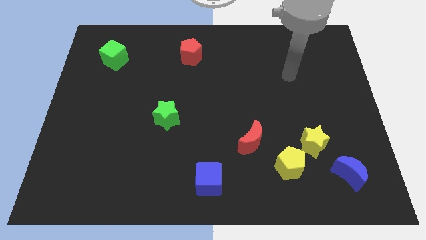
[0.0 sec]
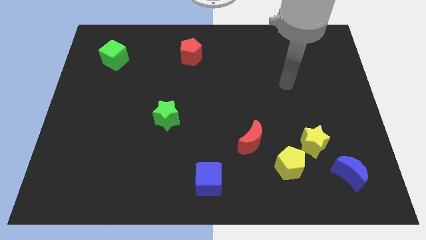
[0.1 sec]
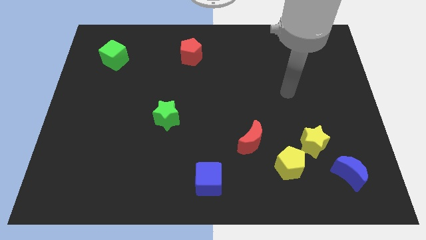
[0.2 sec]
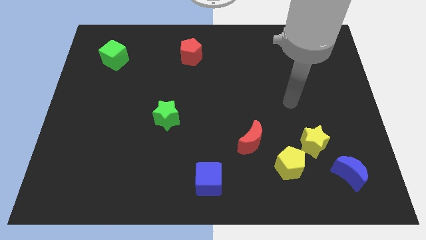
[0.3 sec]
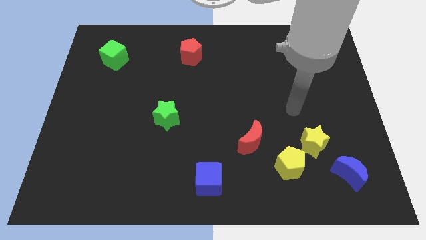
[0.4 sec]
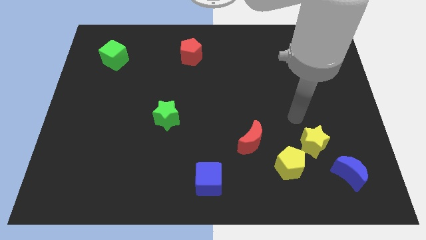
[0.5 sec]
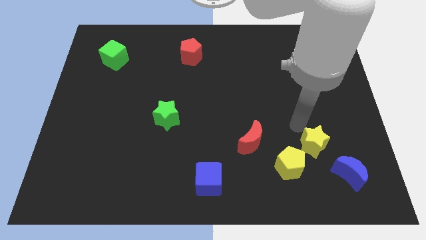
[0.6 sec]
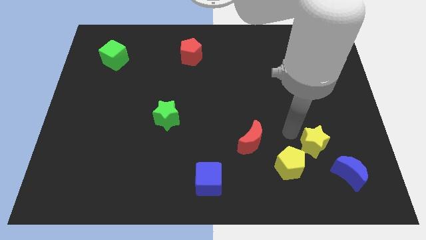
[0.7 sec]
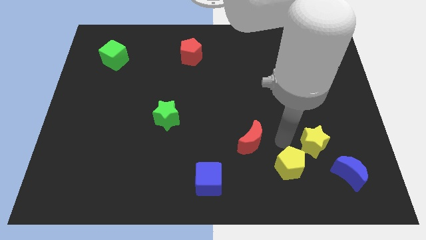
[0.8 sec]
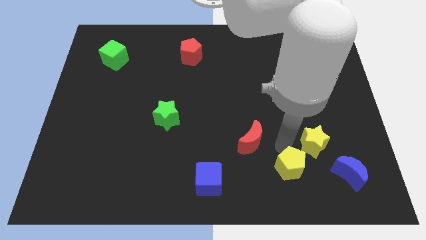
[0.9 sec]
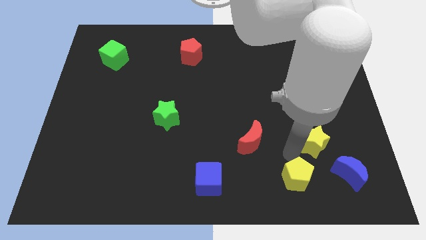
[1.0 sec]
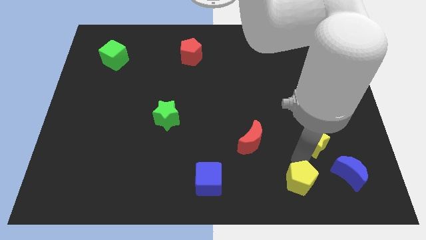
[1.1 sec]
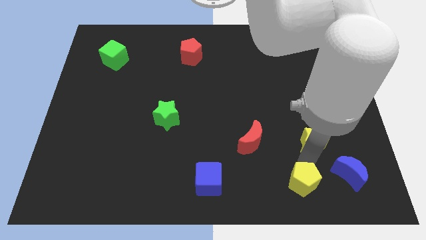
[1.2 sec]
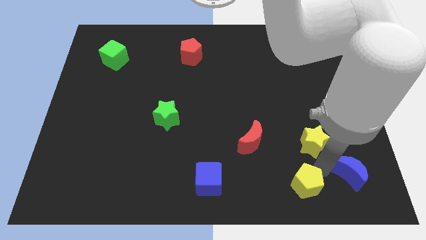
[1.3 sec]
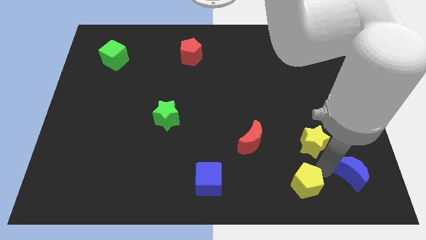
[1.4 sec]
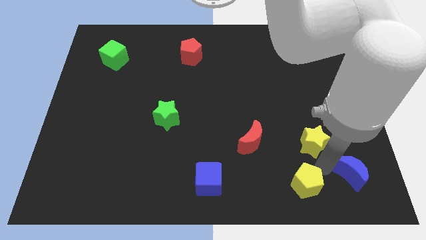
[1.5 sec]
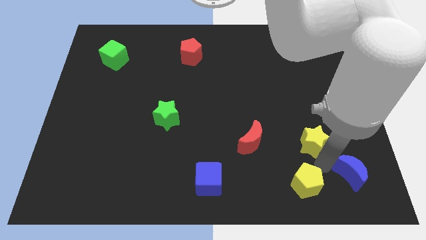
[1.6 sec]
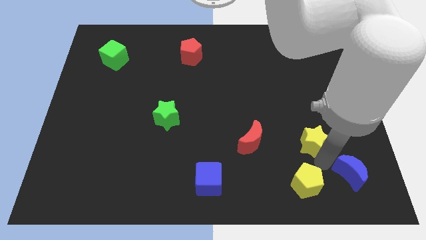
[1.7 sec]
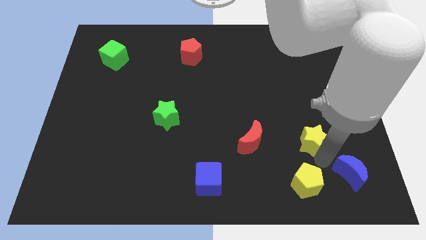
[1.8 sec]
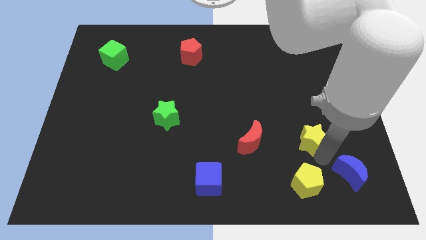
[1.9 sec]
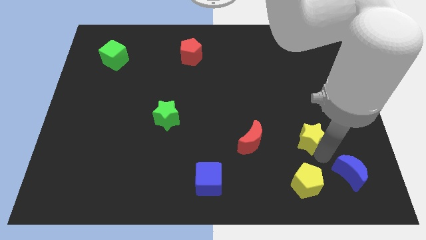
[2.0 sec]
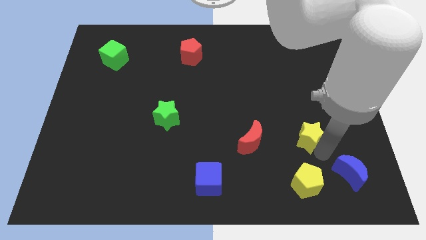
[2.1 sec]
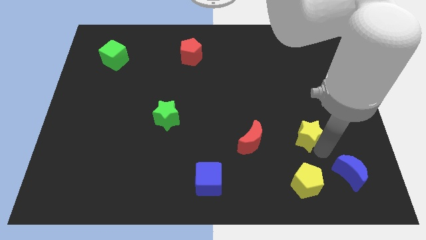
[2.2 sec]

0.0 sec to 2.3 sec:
move the yellow star away from the yellow pentagon and blue moon

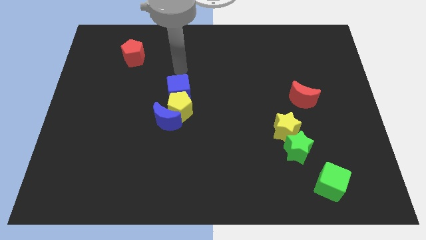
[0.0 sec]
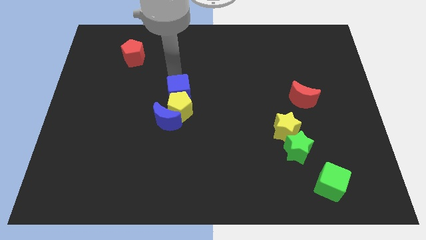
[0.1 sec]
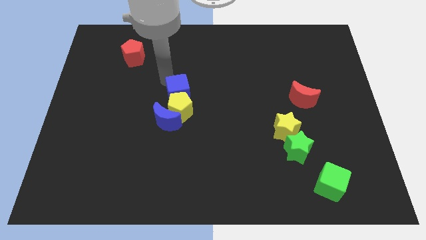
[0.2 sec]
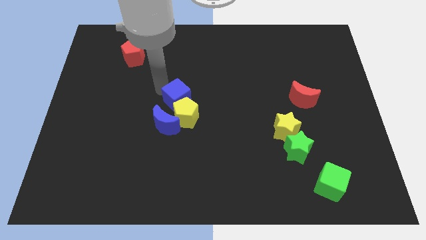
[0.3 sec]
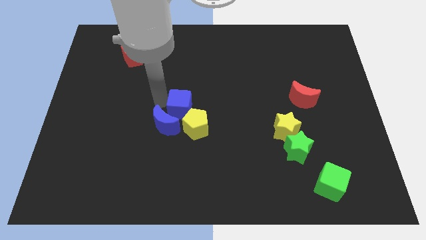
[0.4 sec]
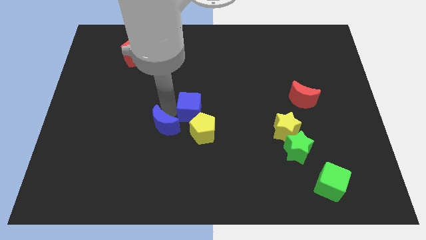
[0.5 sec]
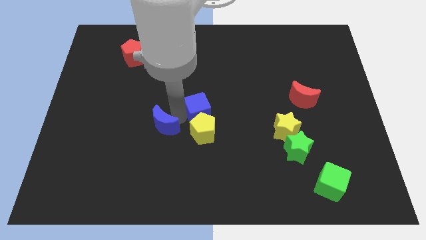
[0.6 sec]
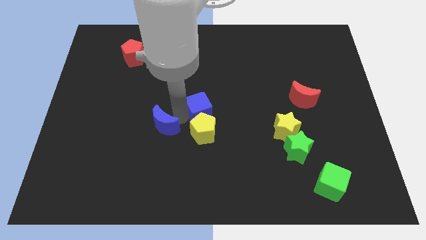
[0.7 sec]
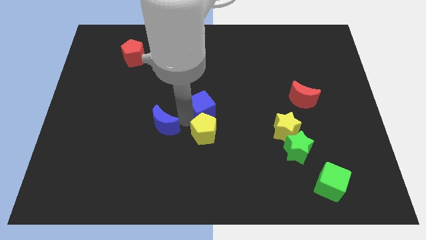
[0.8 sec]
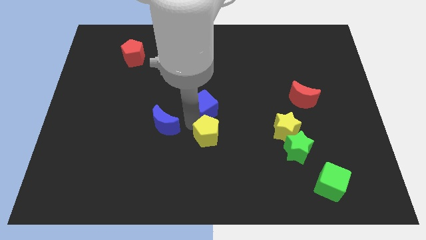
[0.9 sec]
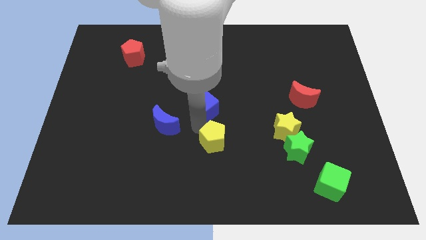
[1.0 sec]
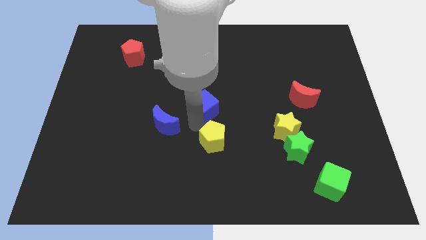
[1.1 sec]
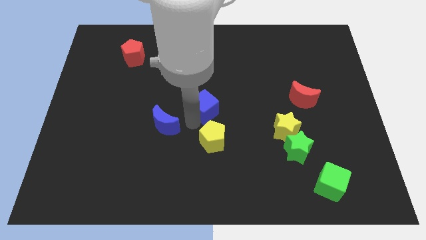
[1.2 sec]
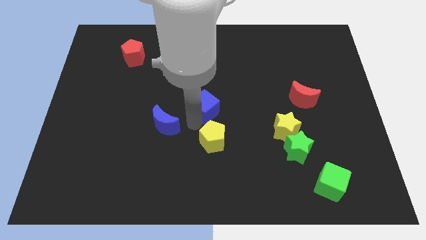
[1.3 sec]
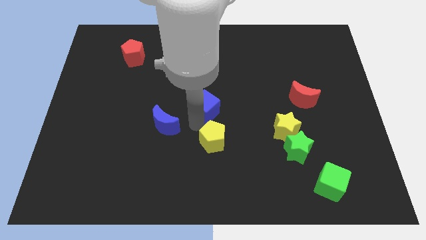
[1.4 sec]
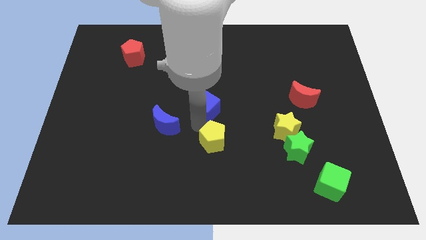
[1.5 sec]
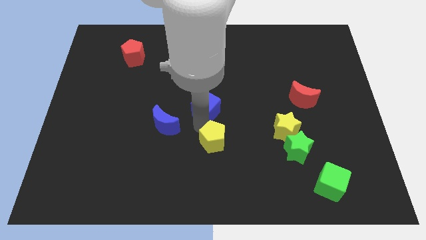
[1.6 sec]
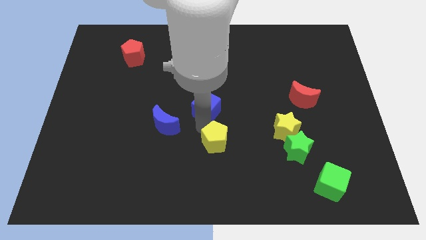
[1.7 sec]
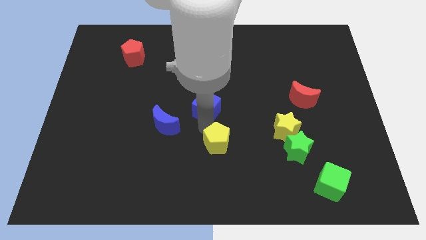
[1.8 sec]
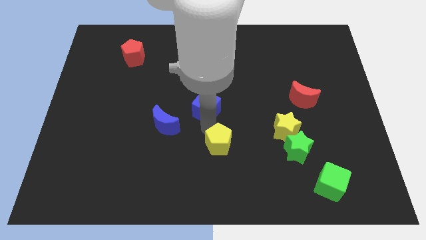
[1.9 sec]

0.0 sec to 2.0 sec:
move the yellow pentagon away from the blue moon and blue cube

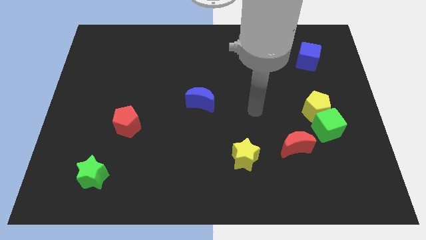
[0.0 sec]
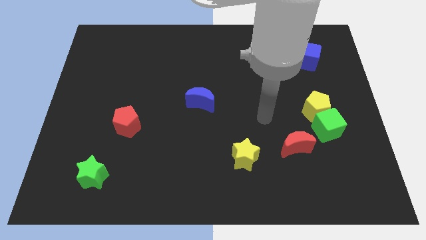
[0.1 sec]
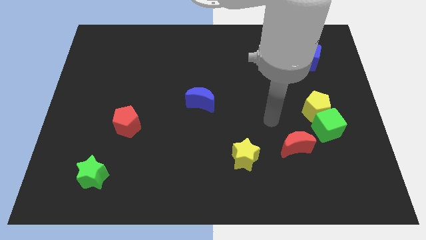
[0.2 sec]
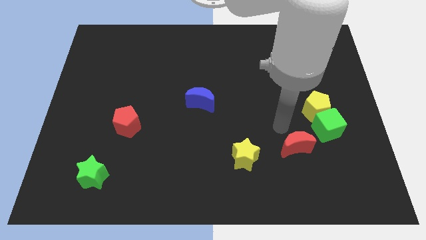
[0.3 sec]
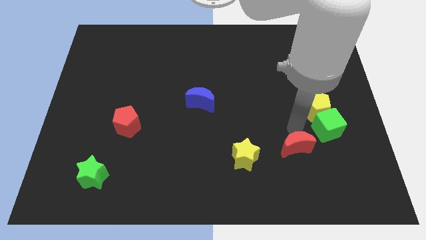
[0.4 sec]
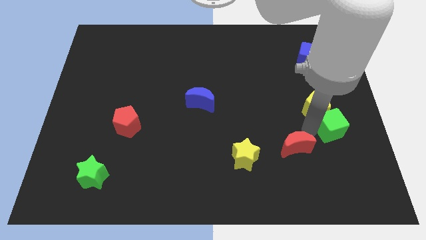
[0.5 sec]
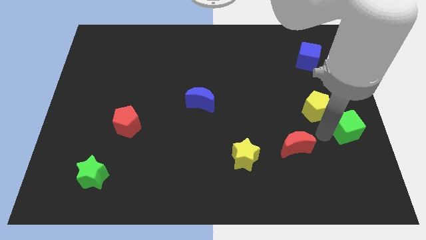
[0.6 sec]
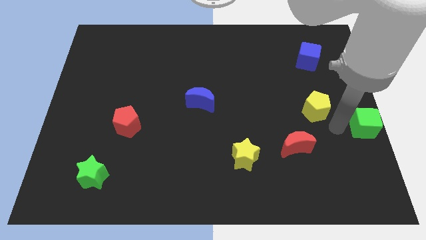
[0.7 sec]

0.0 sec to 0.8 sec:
move the yellow pentagon away from the green cube

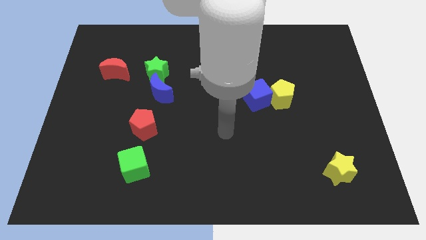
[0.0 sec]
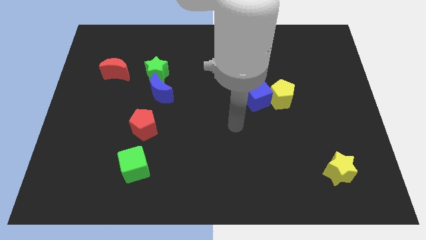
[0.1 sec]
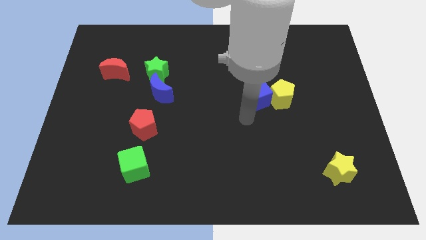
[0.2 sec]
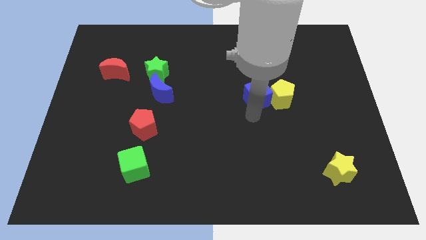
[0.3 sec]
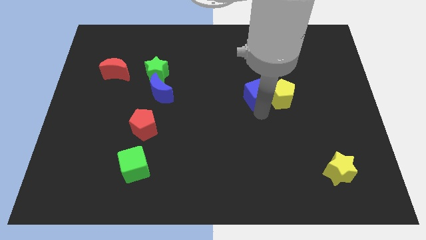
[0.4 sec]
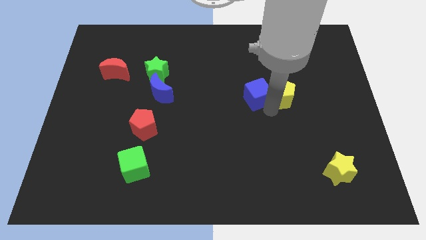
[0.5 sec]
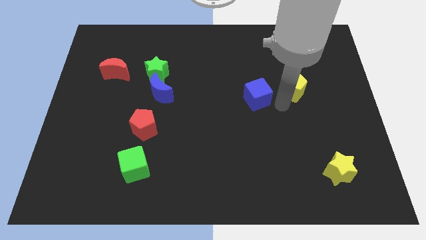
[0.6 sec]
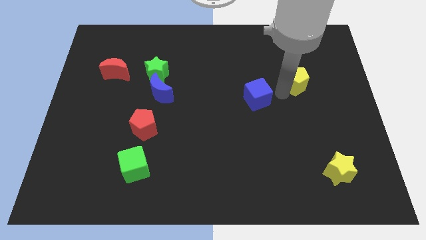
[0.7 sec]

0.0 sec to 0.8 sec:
move the blue cube away from the yellow pentagon

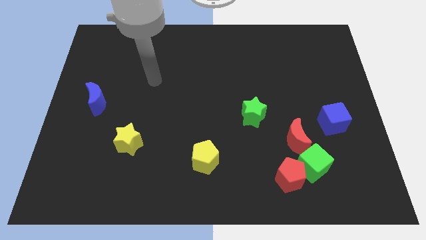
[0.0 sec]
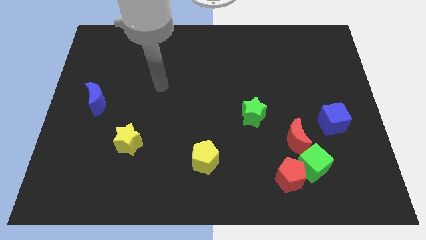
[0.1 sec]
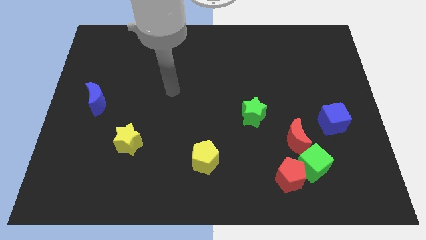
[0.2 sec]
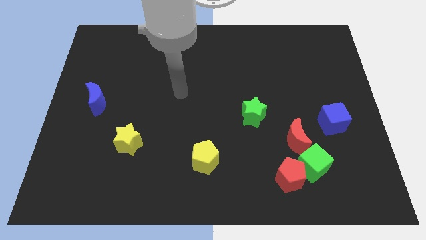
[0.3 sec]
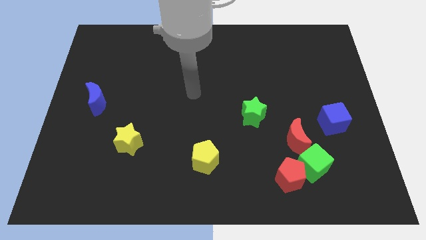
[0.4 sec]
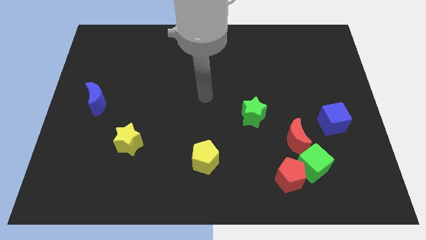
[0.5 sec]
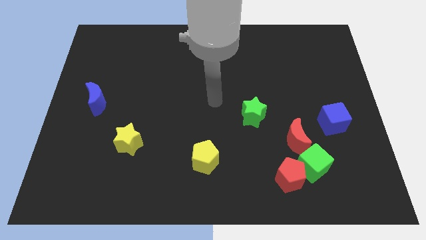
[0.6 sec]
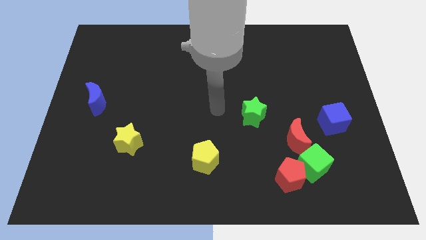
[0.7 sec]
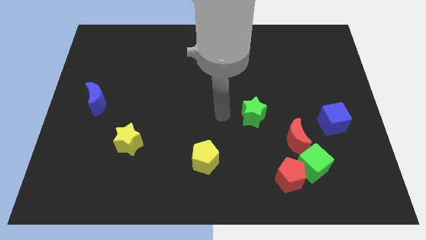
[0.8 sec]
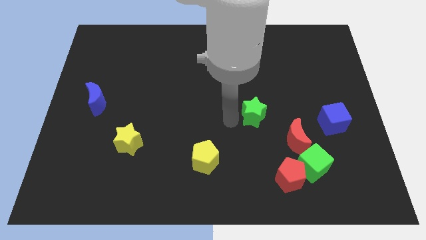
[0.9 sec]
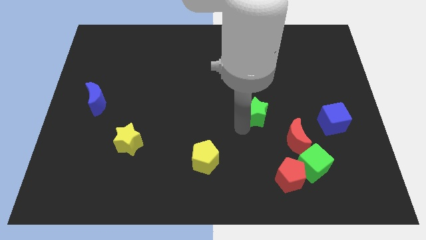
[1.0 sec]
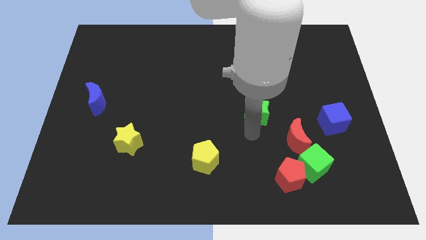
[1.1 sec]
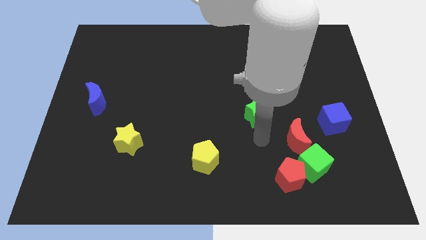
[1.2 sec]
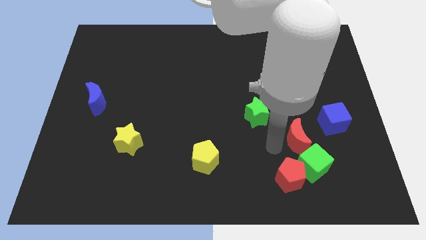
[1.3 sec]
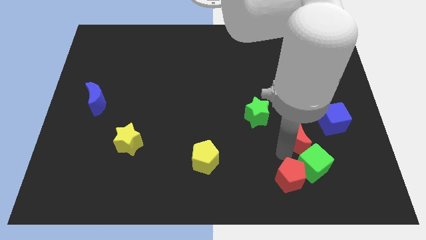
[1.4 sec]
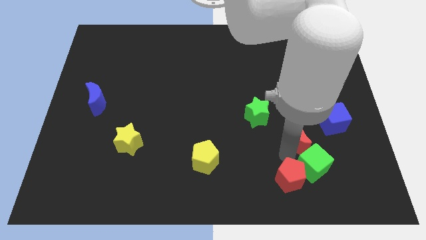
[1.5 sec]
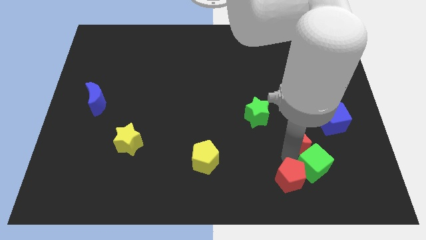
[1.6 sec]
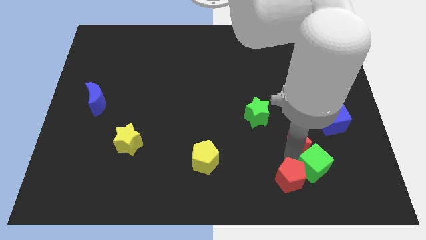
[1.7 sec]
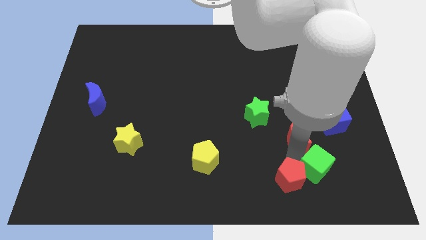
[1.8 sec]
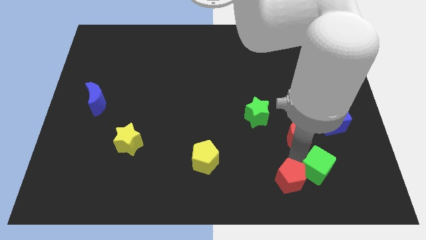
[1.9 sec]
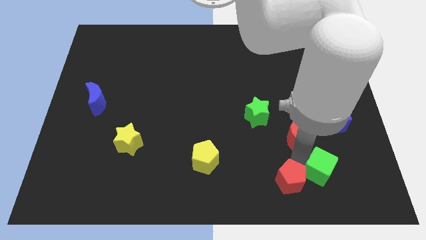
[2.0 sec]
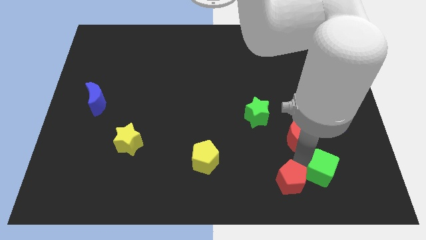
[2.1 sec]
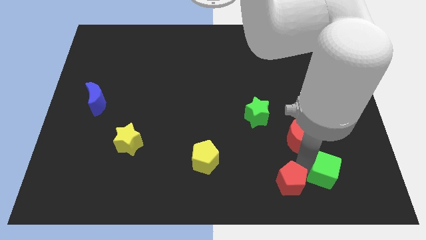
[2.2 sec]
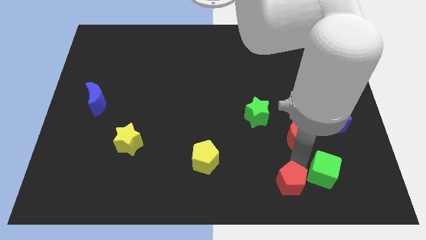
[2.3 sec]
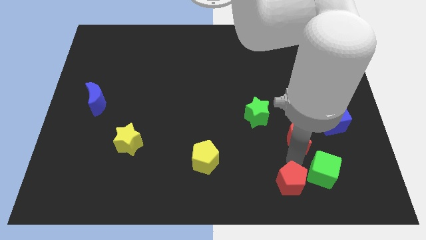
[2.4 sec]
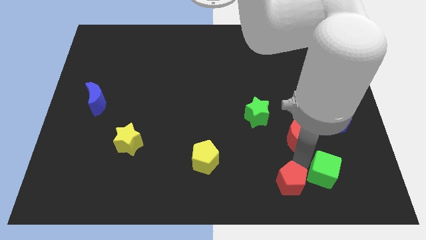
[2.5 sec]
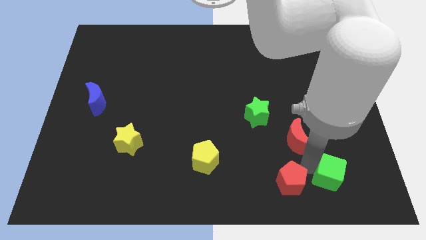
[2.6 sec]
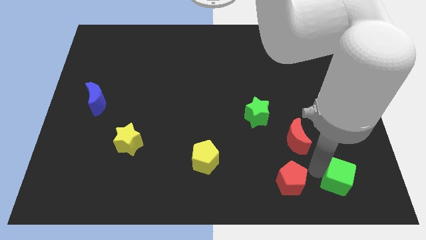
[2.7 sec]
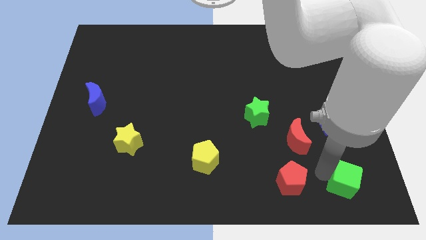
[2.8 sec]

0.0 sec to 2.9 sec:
pull the green cube apart from the red pentagon and red moon

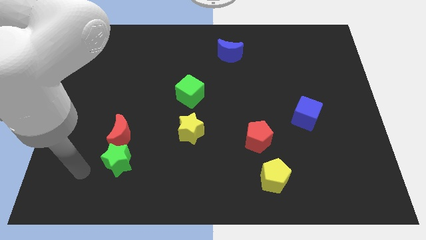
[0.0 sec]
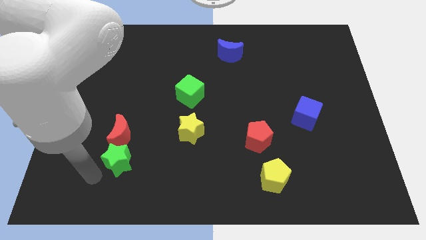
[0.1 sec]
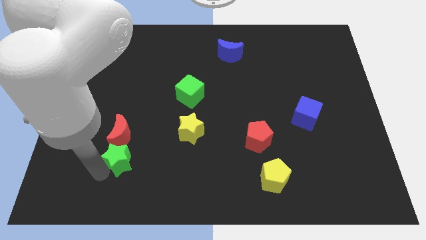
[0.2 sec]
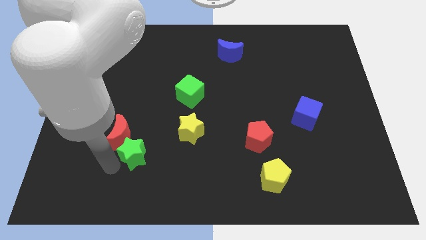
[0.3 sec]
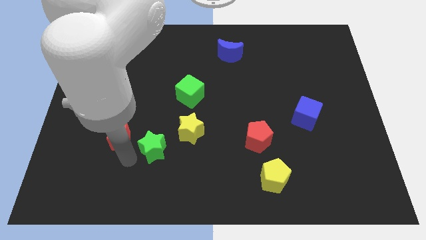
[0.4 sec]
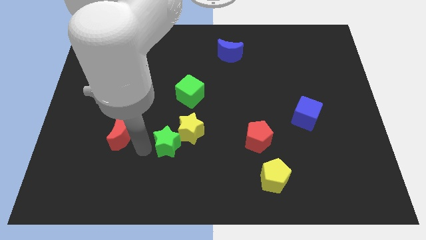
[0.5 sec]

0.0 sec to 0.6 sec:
separate the red moon from the green star
